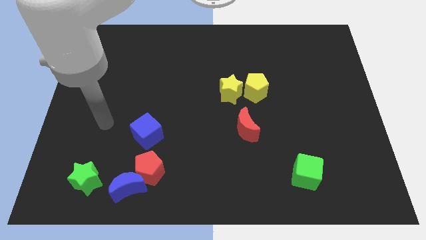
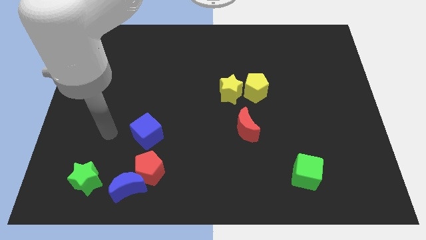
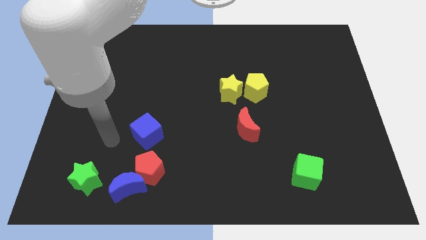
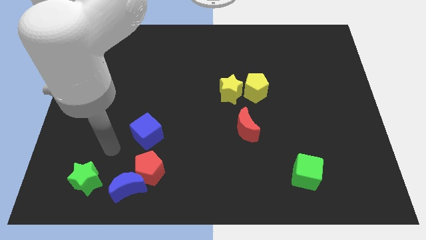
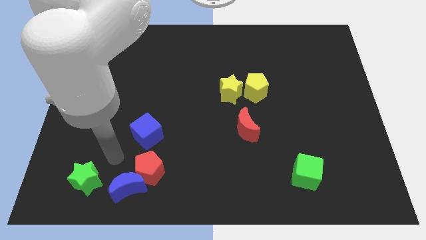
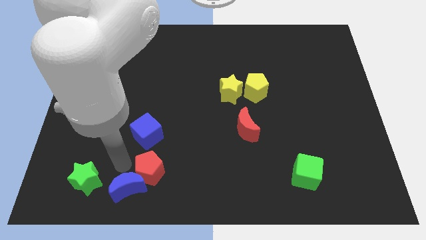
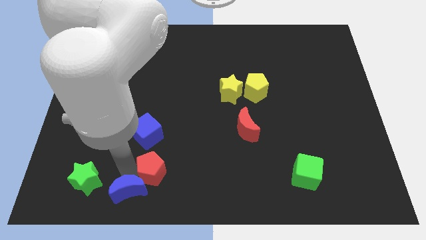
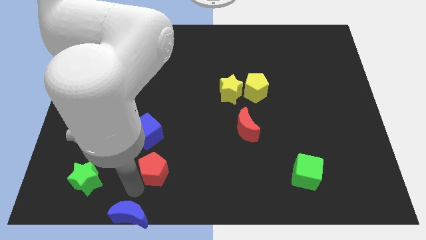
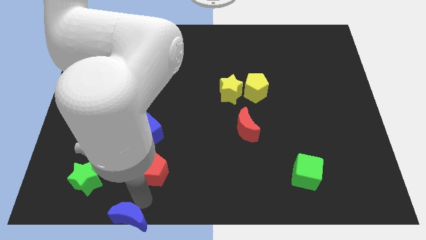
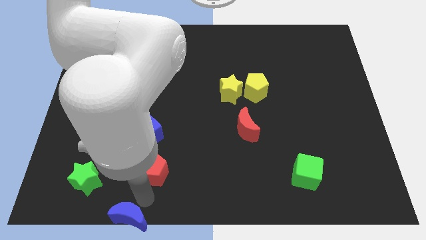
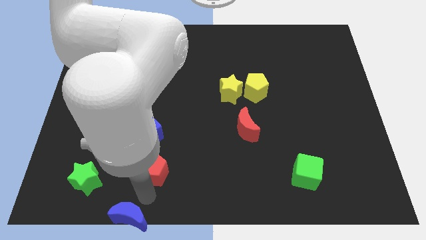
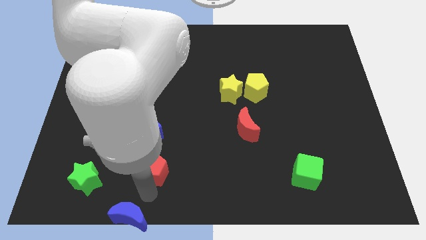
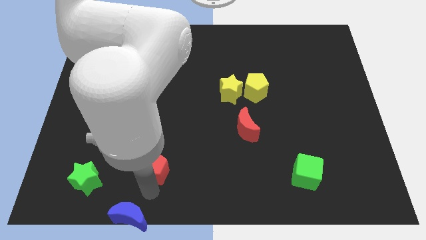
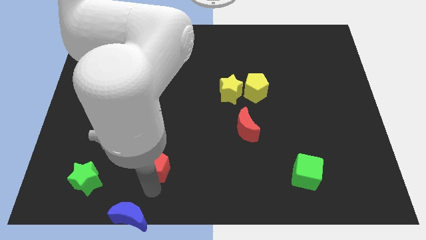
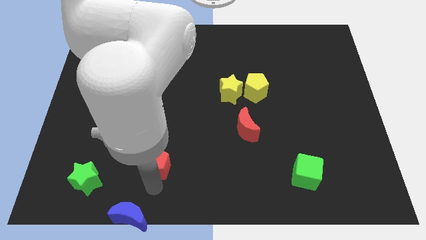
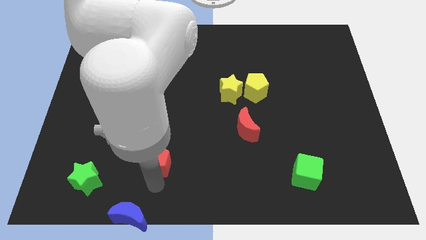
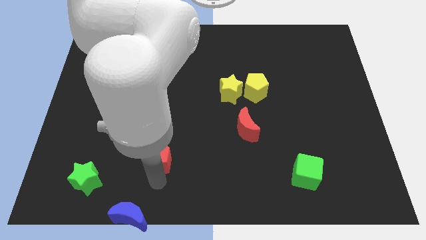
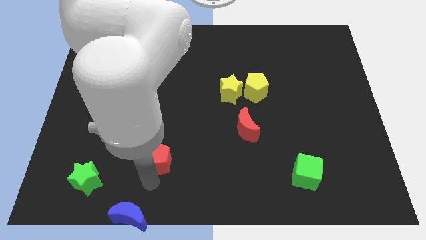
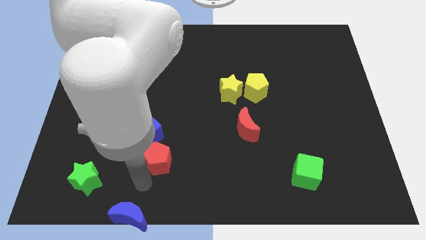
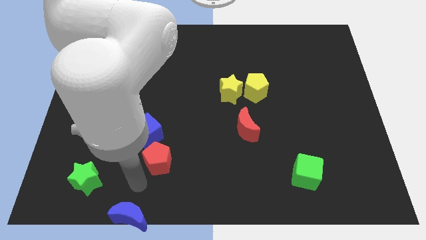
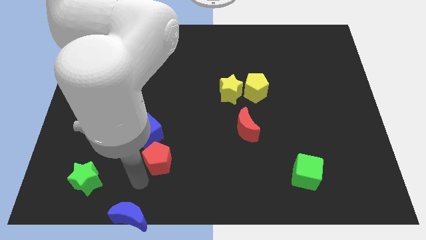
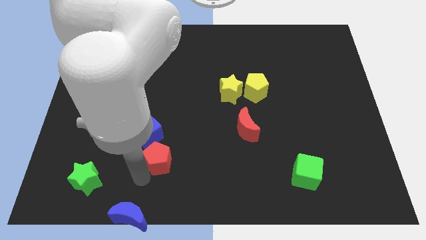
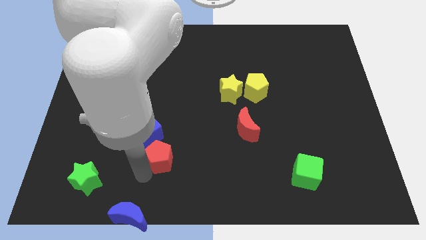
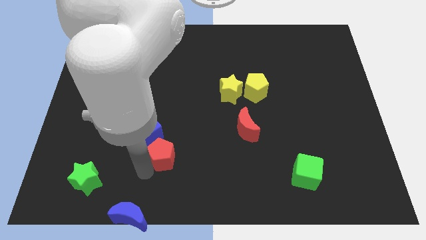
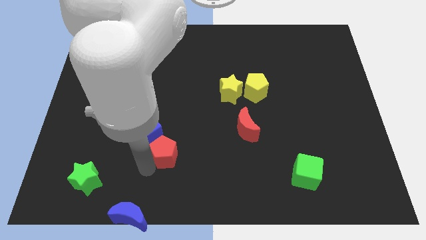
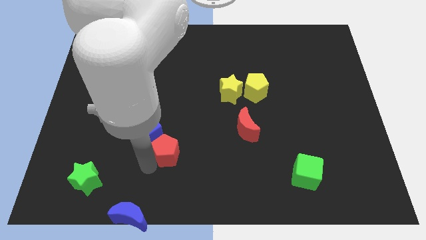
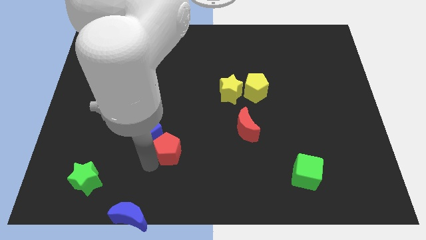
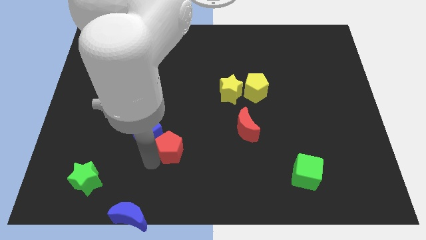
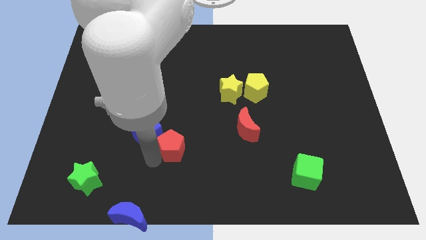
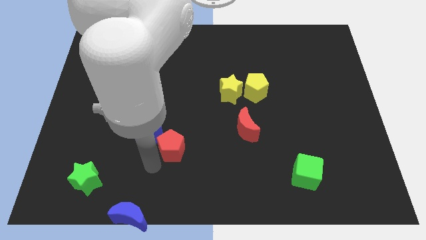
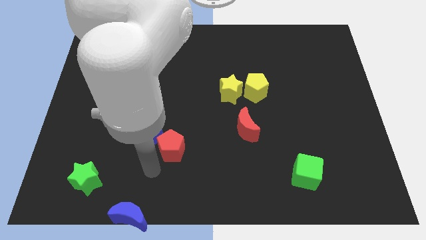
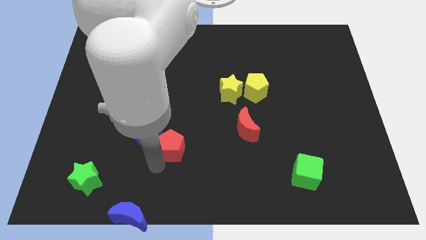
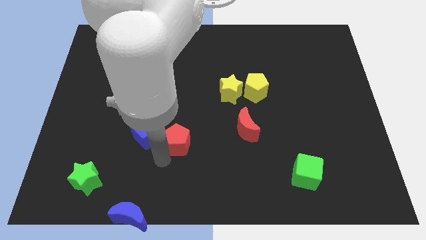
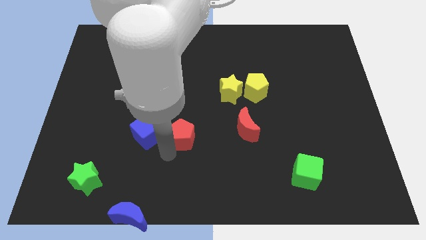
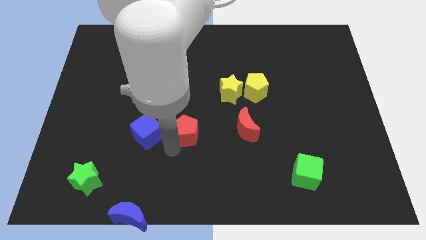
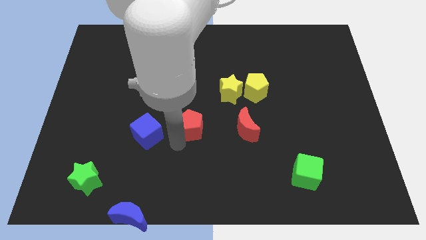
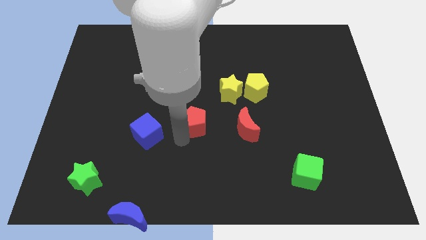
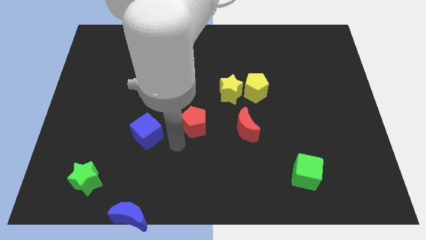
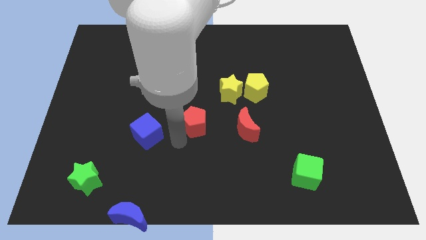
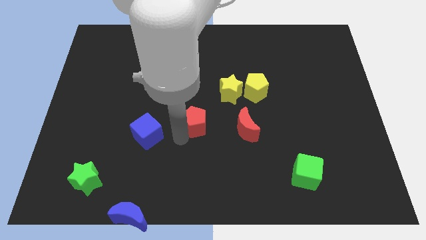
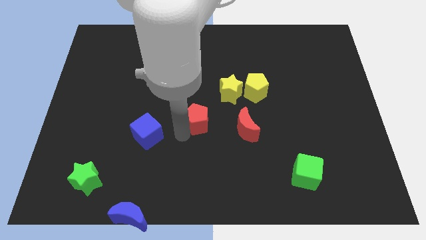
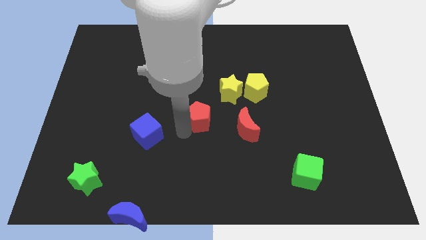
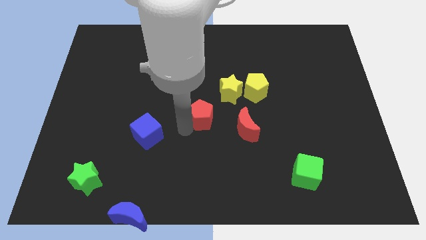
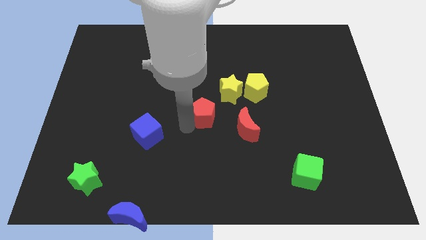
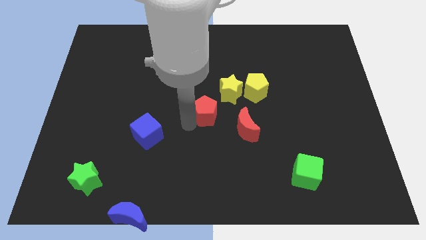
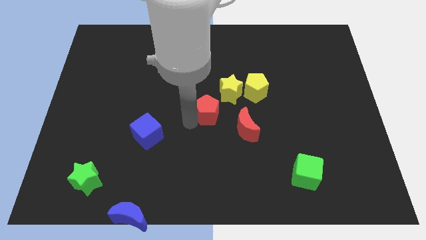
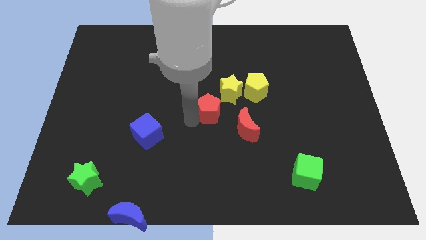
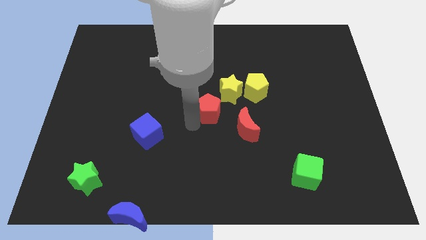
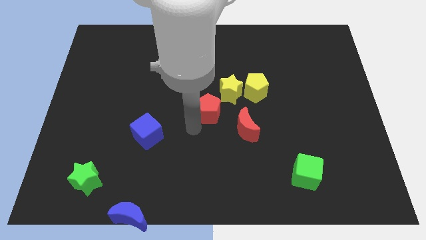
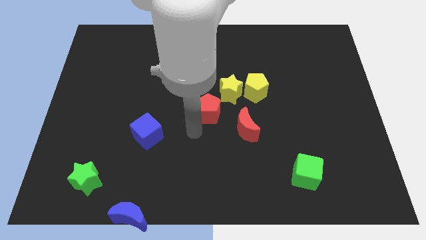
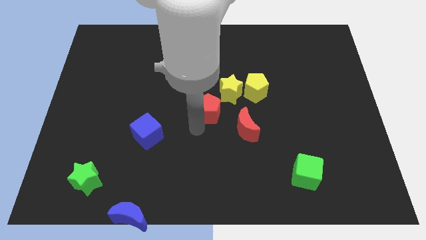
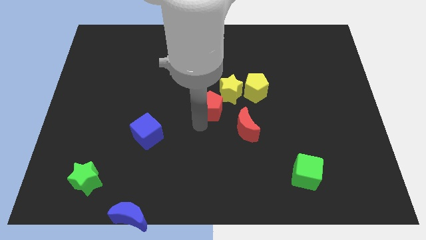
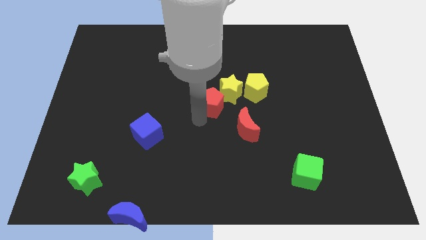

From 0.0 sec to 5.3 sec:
move the red pentagon towards the yellow star

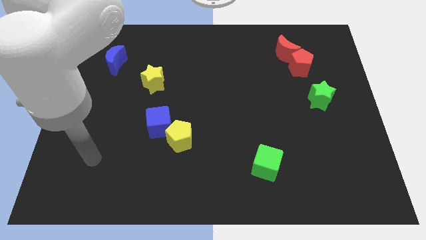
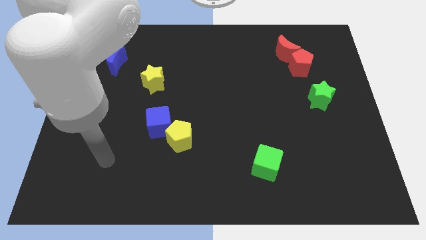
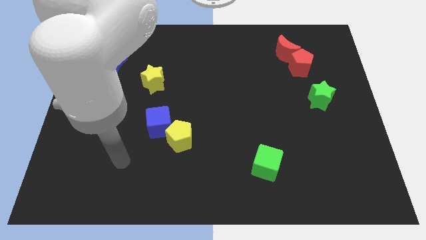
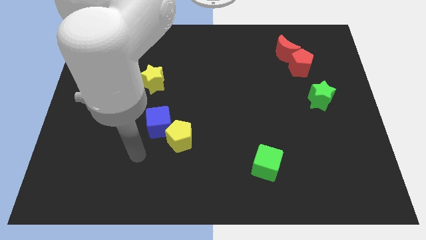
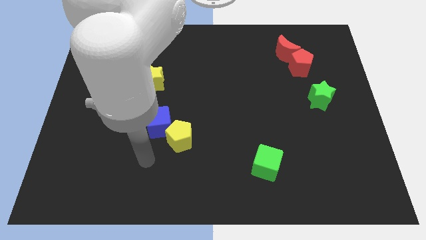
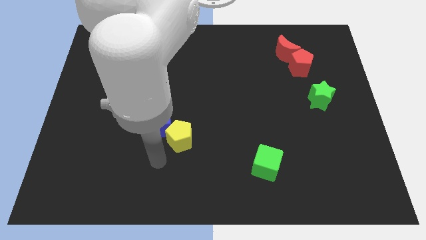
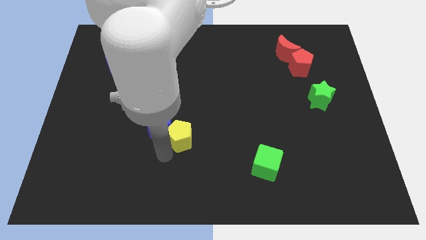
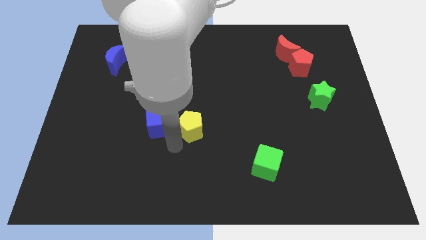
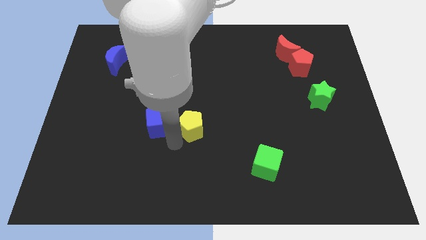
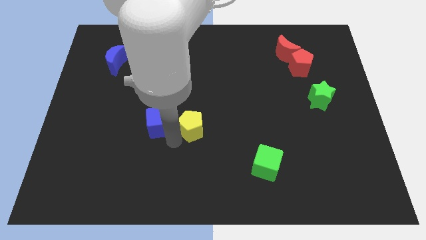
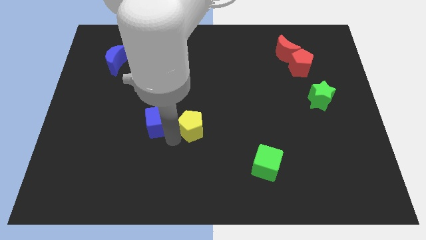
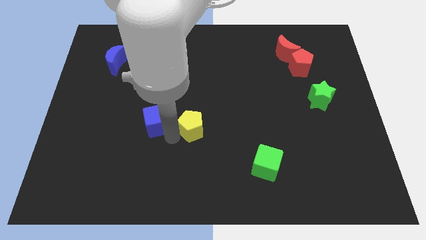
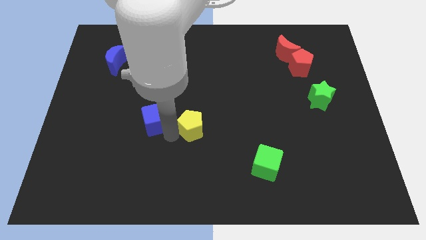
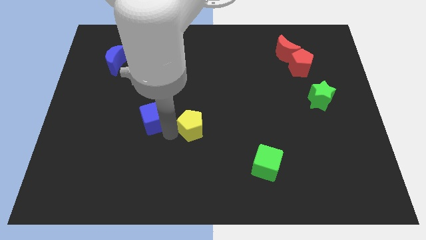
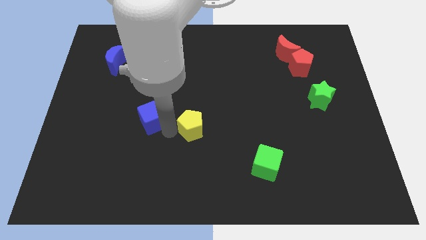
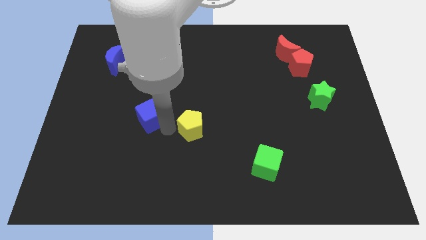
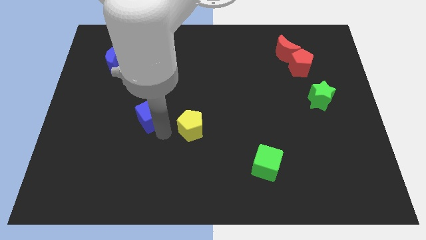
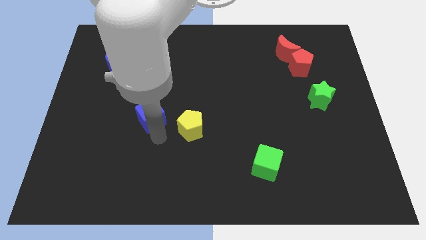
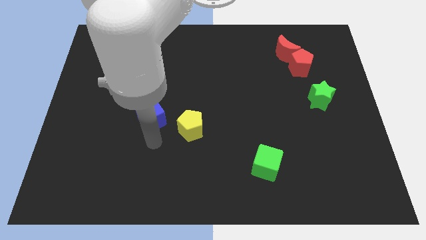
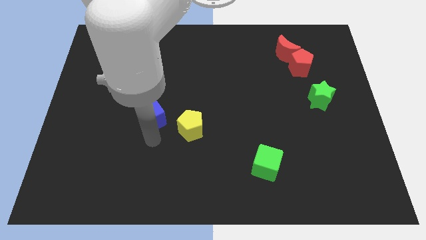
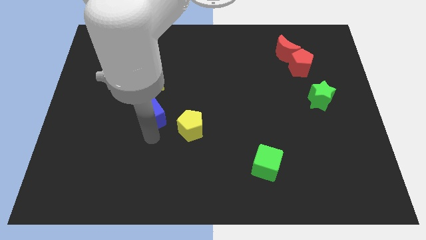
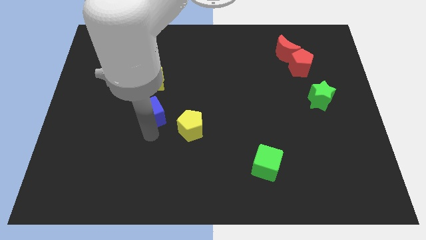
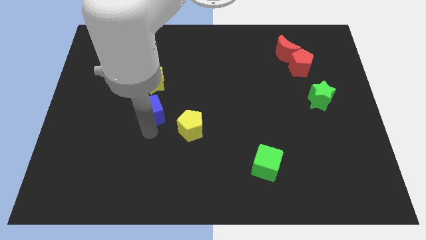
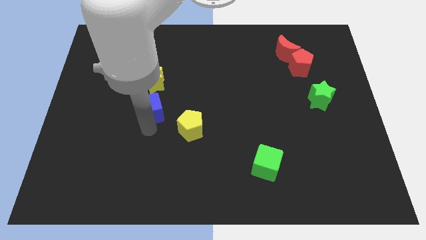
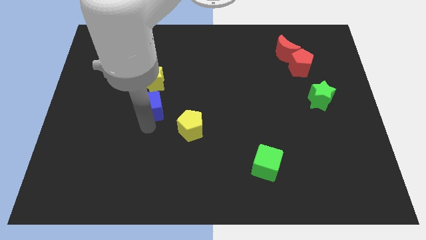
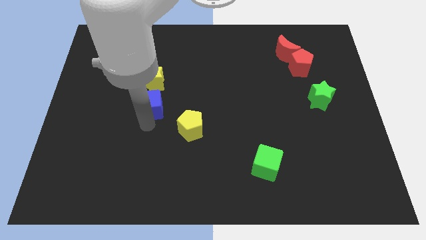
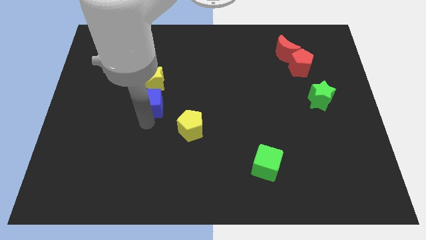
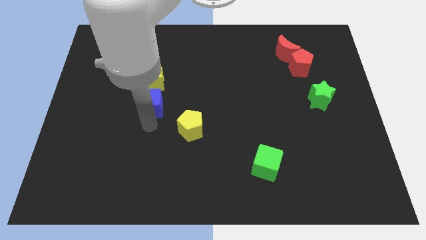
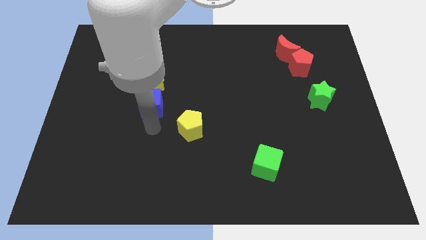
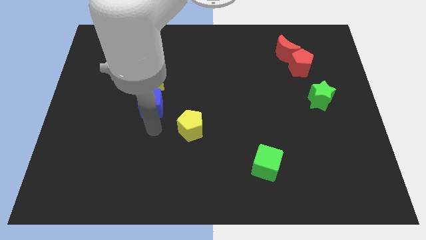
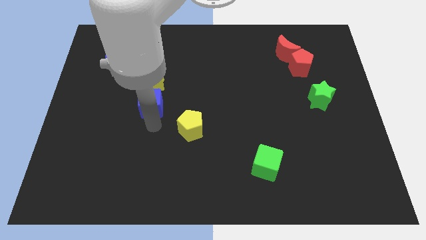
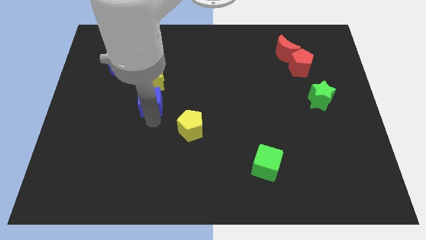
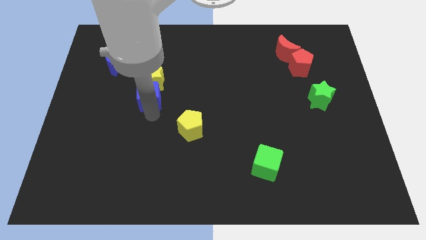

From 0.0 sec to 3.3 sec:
slide the blue cube to the yellow star
